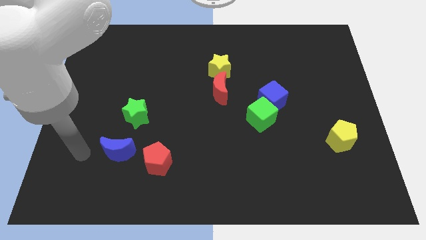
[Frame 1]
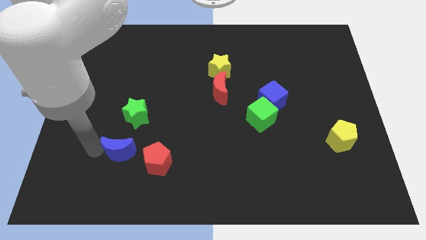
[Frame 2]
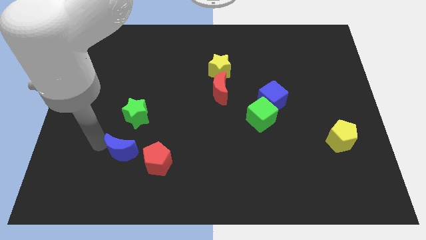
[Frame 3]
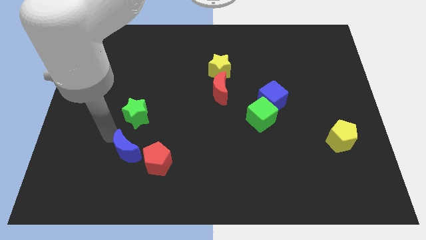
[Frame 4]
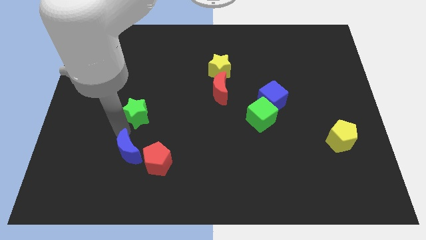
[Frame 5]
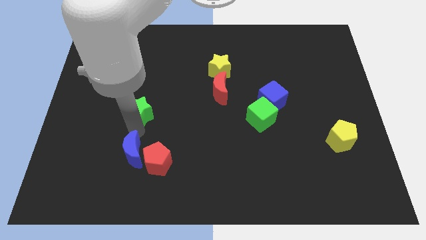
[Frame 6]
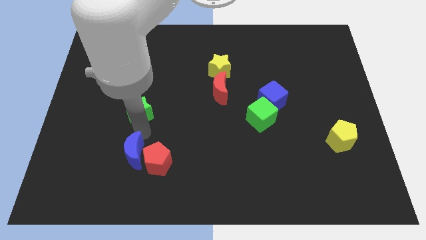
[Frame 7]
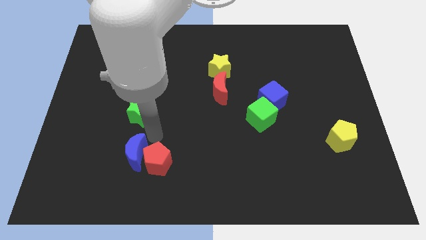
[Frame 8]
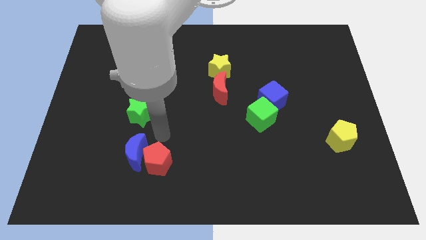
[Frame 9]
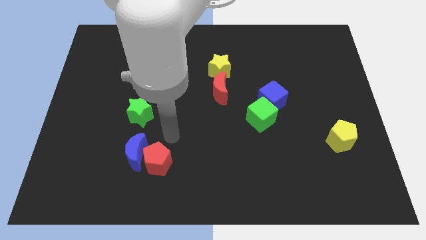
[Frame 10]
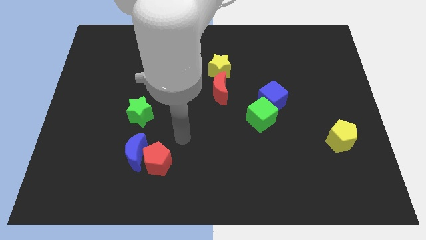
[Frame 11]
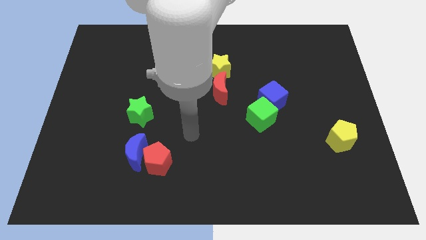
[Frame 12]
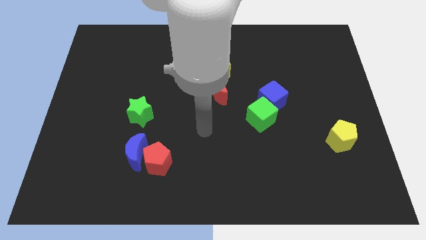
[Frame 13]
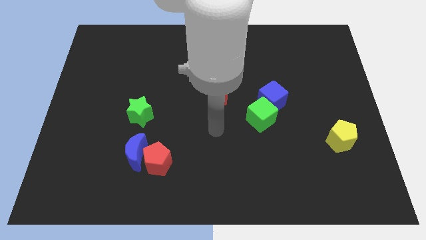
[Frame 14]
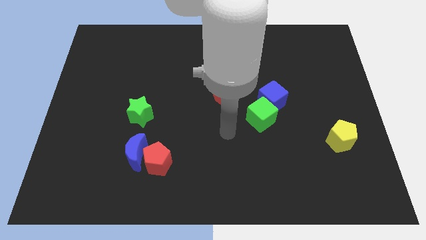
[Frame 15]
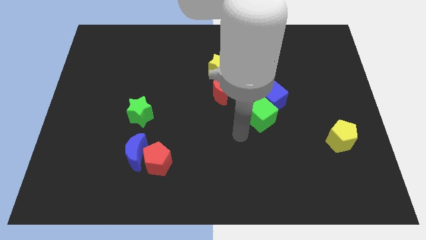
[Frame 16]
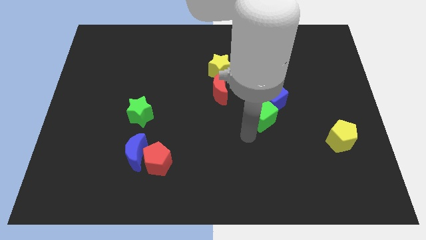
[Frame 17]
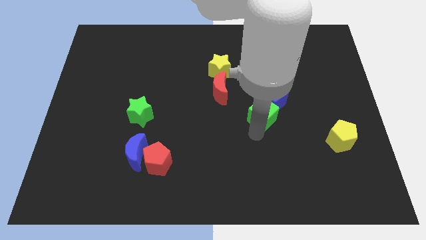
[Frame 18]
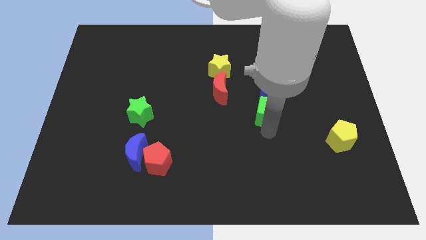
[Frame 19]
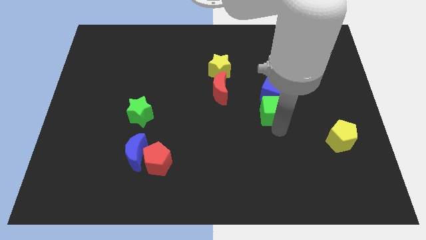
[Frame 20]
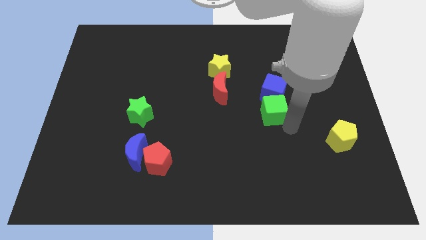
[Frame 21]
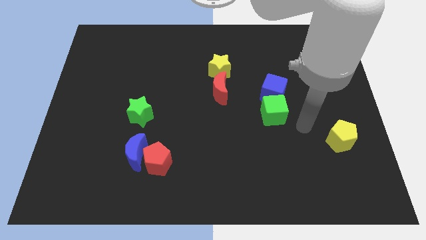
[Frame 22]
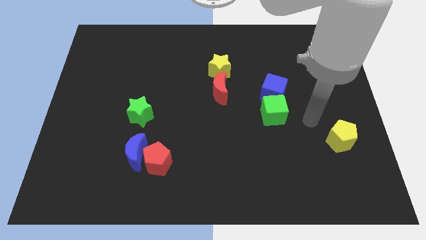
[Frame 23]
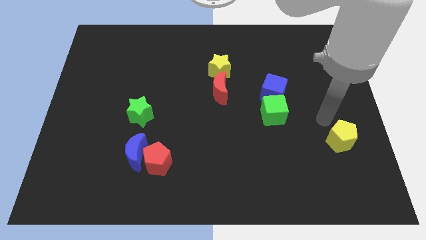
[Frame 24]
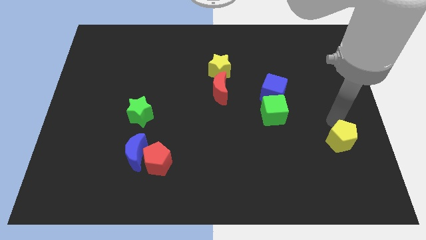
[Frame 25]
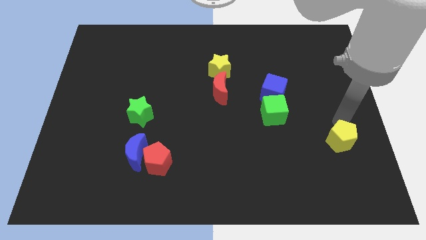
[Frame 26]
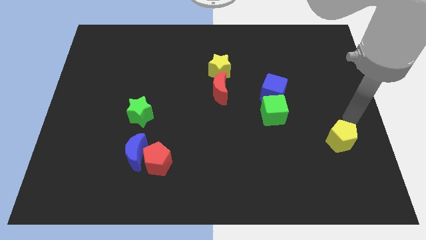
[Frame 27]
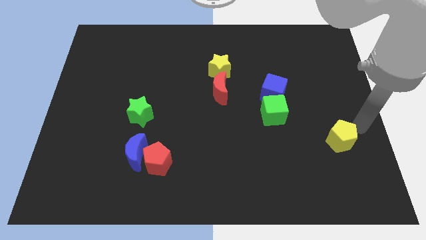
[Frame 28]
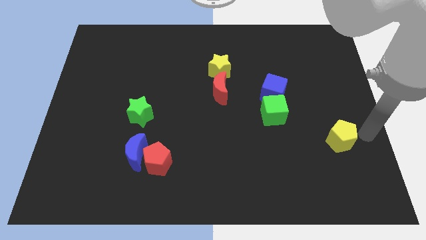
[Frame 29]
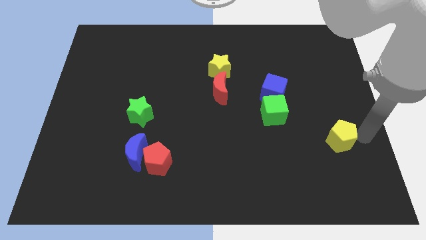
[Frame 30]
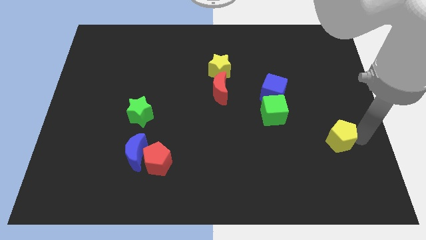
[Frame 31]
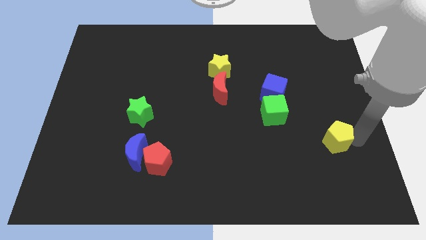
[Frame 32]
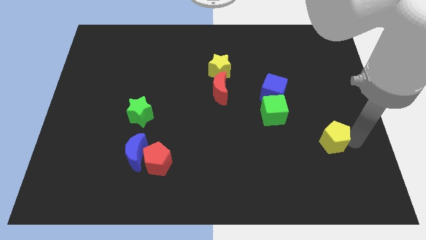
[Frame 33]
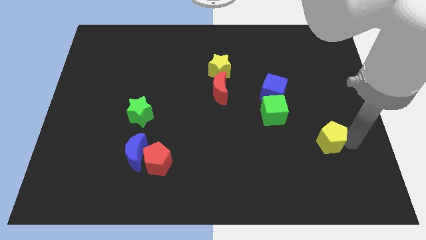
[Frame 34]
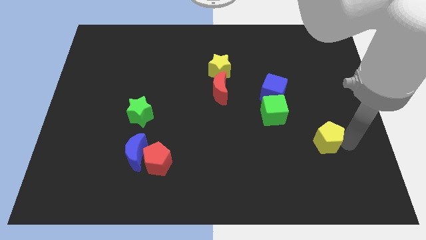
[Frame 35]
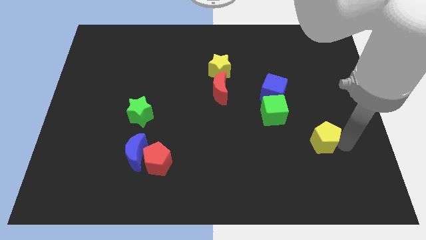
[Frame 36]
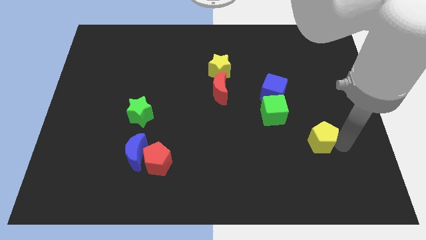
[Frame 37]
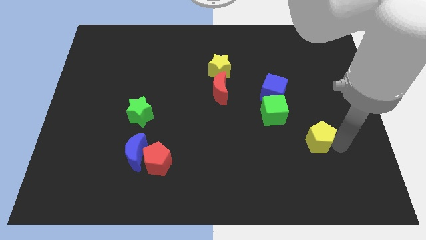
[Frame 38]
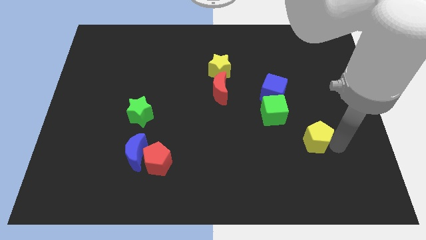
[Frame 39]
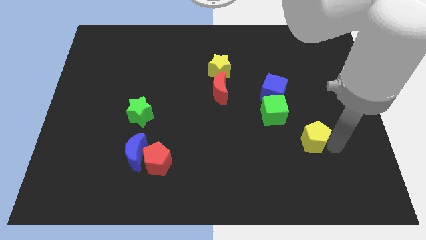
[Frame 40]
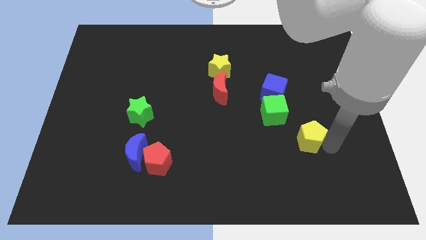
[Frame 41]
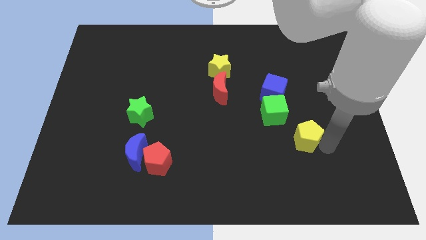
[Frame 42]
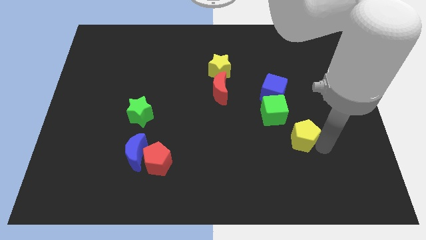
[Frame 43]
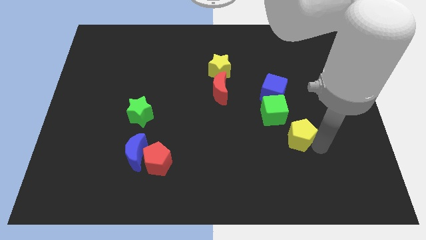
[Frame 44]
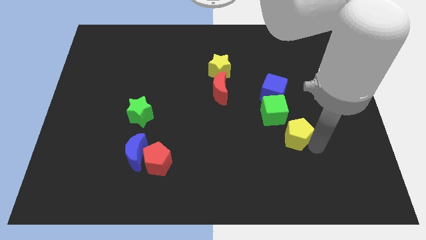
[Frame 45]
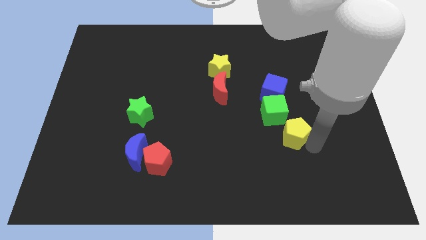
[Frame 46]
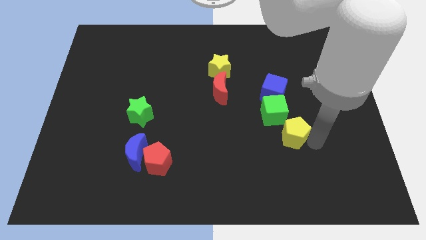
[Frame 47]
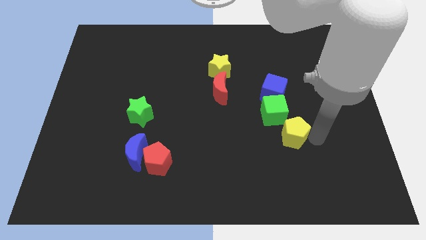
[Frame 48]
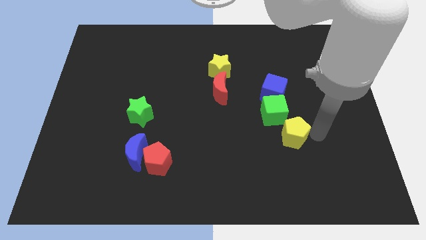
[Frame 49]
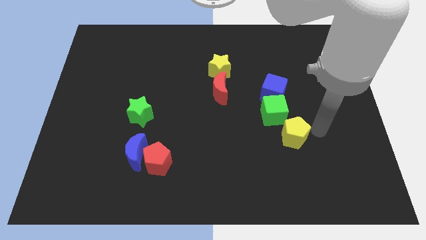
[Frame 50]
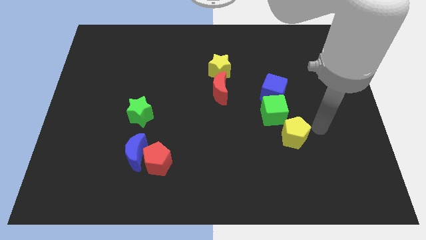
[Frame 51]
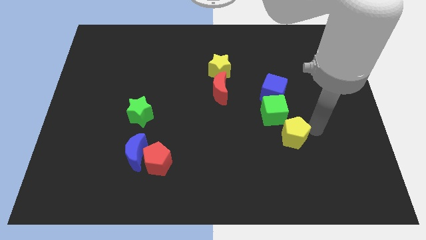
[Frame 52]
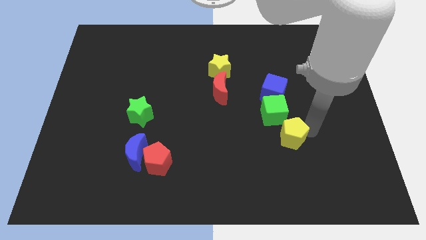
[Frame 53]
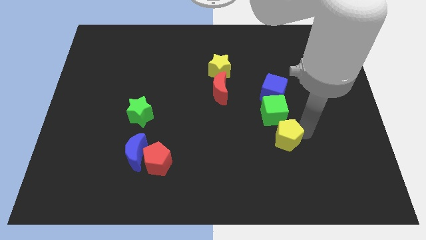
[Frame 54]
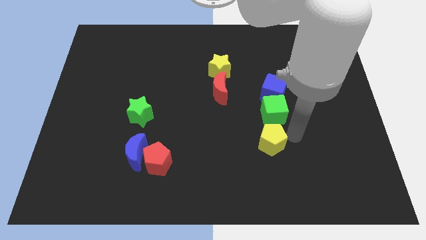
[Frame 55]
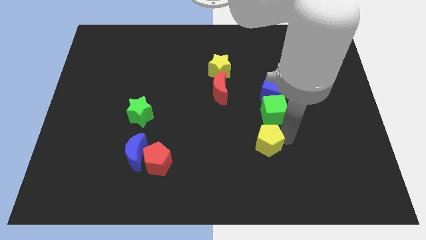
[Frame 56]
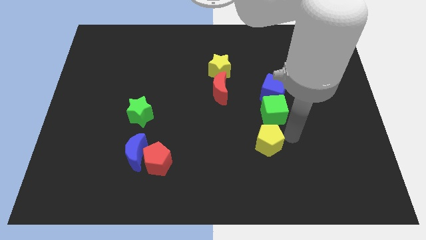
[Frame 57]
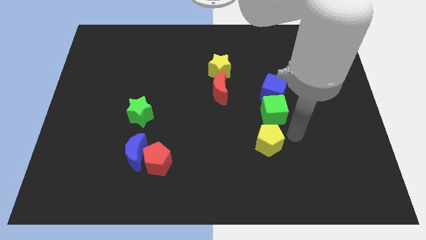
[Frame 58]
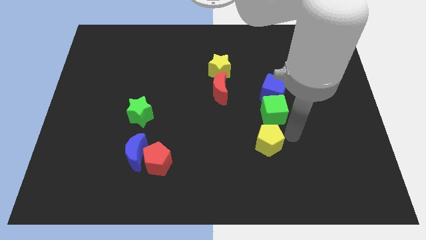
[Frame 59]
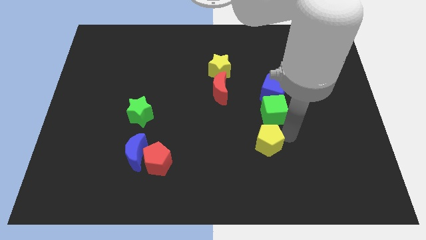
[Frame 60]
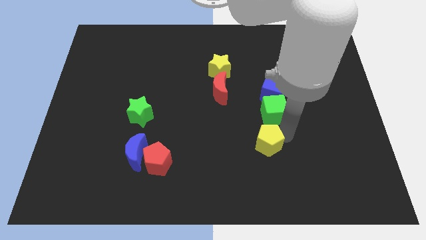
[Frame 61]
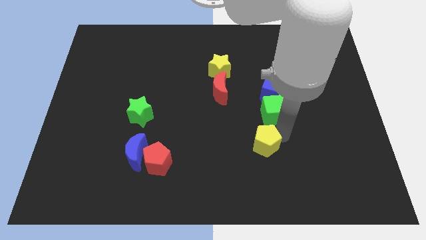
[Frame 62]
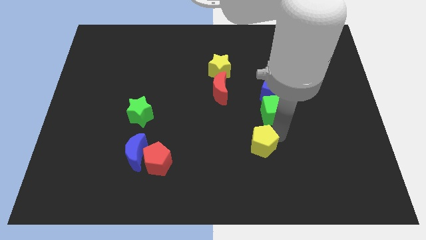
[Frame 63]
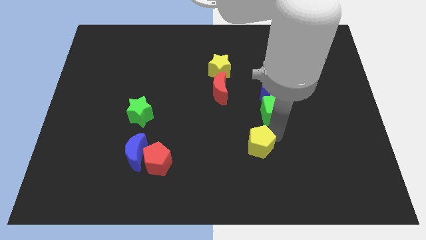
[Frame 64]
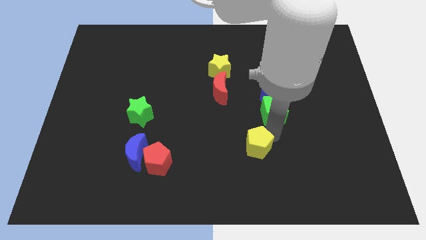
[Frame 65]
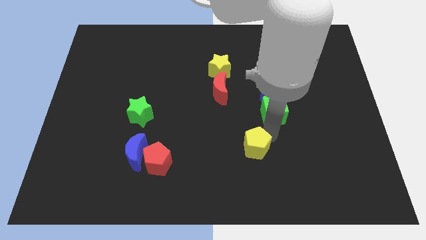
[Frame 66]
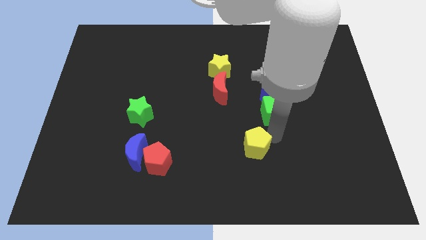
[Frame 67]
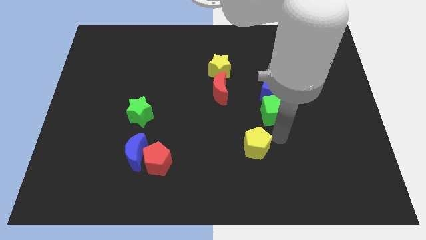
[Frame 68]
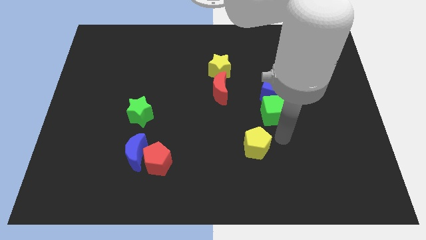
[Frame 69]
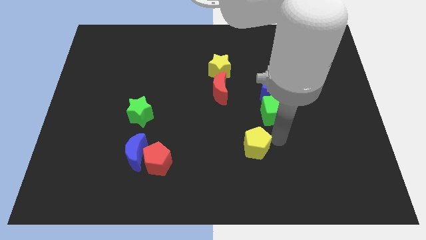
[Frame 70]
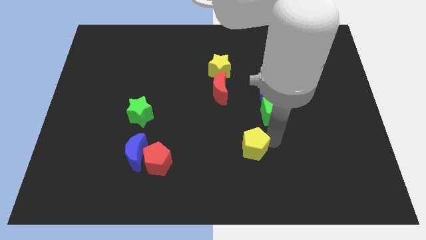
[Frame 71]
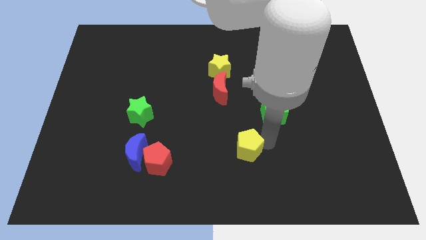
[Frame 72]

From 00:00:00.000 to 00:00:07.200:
move the yellow pentagon to the left

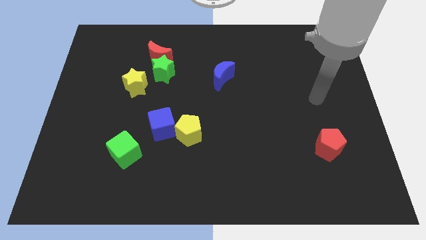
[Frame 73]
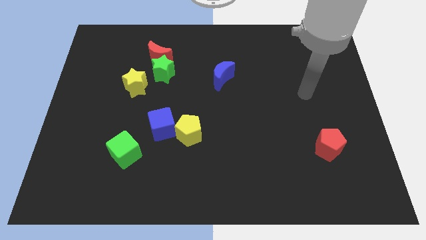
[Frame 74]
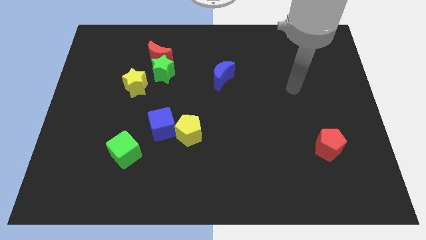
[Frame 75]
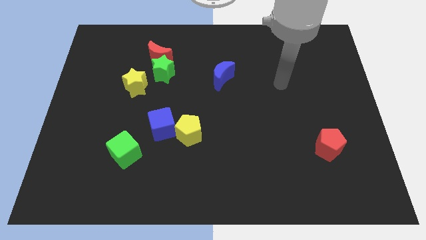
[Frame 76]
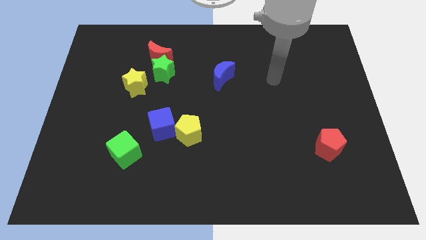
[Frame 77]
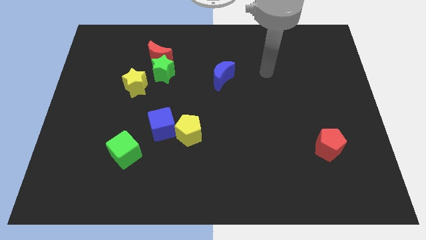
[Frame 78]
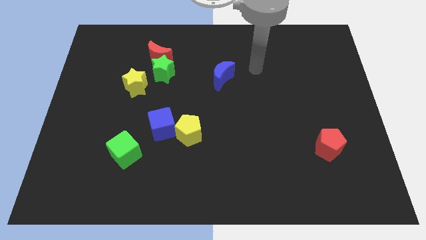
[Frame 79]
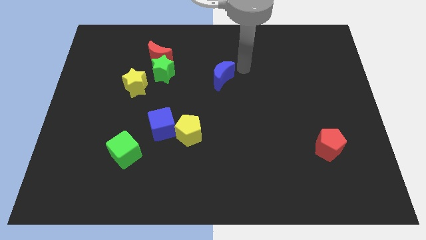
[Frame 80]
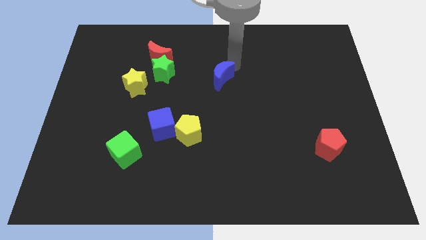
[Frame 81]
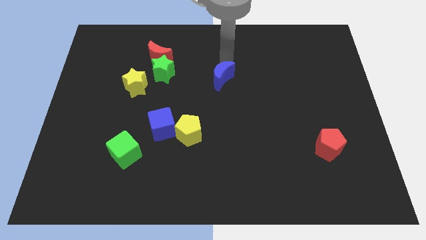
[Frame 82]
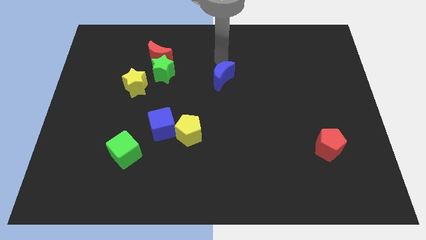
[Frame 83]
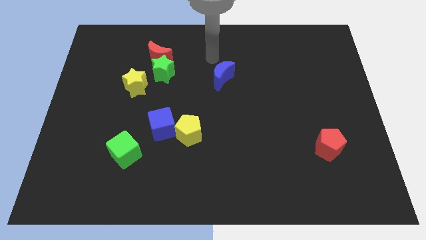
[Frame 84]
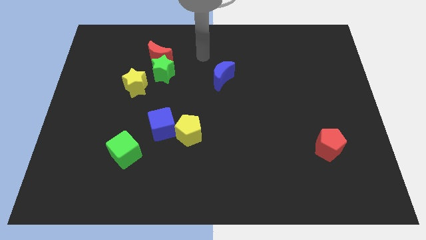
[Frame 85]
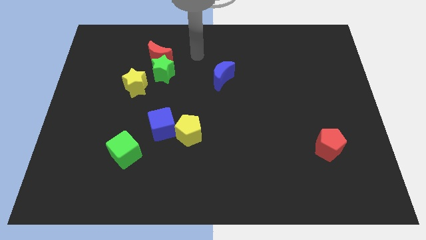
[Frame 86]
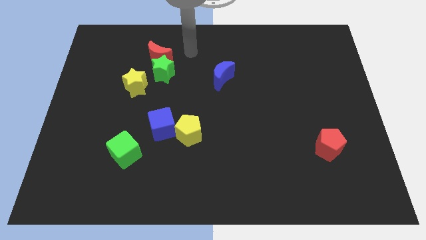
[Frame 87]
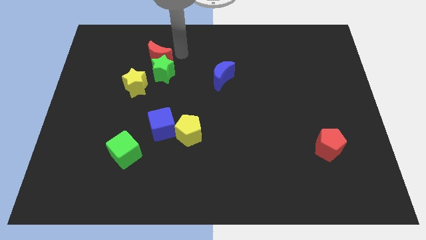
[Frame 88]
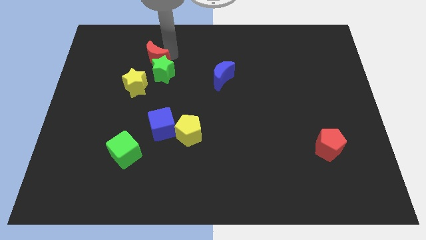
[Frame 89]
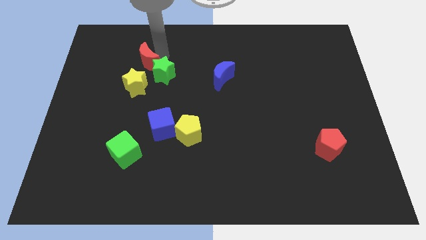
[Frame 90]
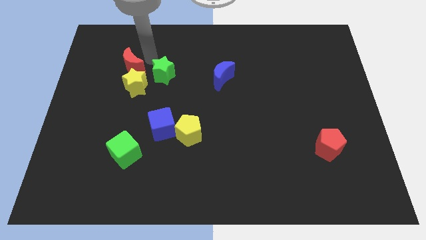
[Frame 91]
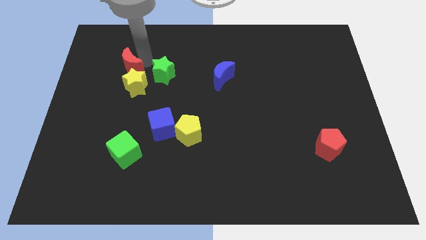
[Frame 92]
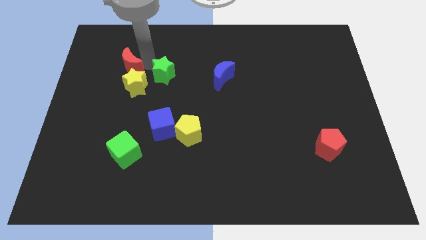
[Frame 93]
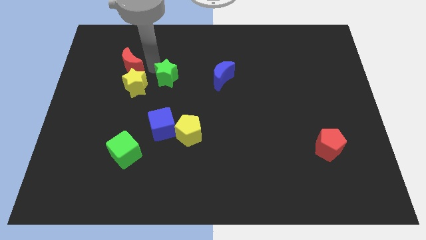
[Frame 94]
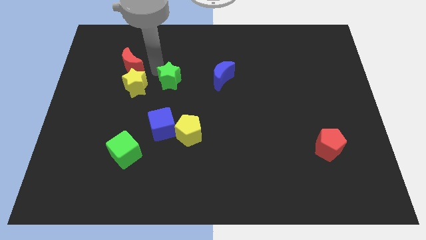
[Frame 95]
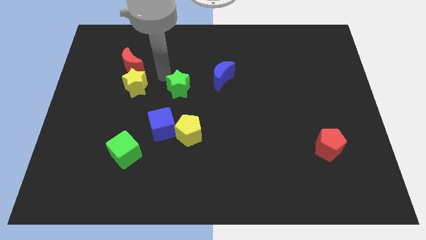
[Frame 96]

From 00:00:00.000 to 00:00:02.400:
slightly slide the green star downwards and then to the right
